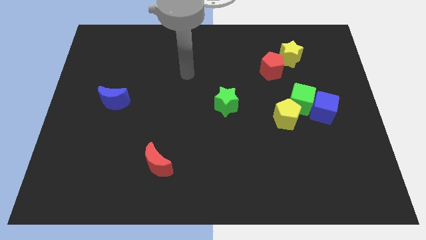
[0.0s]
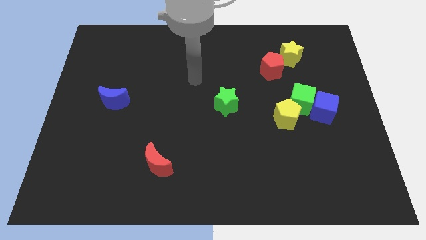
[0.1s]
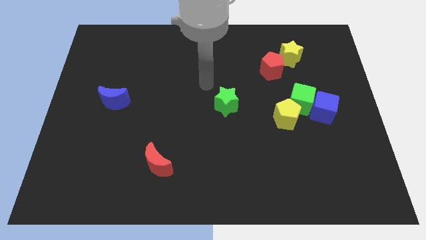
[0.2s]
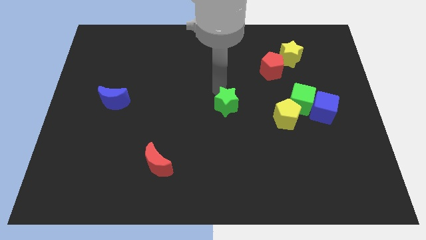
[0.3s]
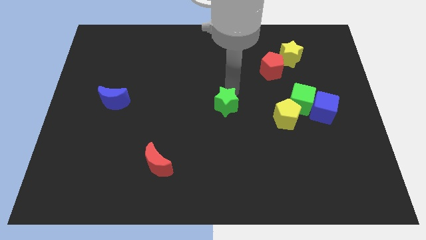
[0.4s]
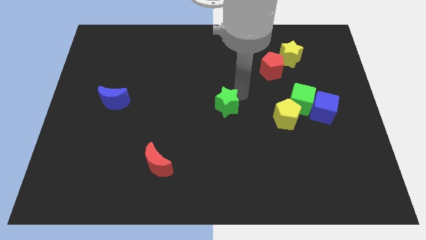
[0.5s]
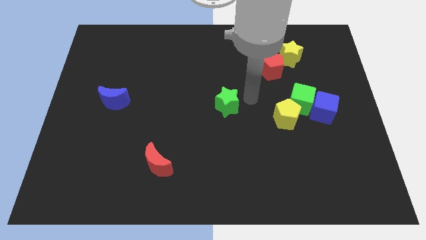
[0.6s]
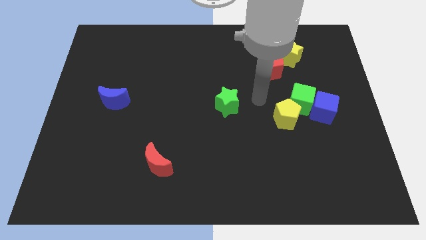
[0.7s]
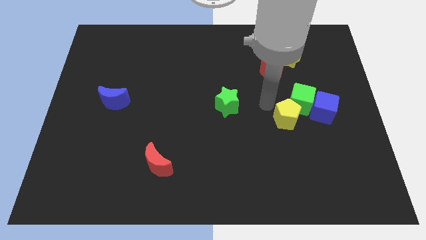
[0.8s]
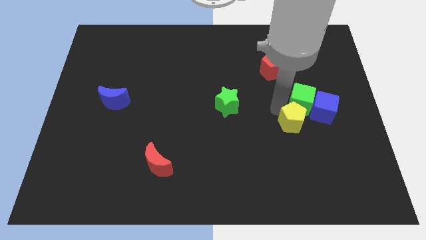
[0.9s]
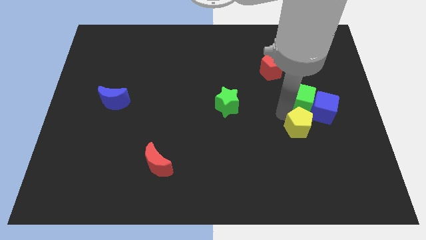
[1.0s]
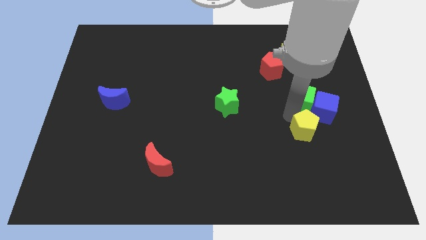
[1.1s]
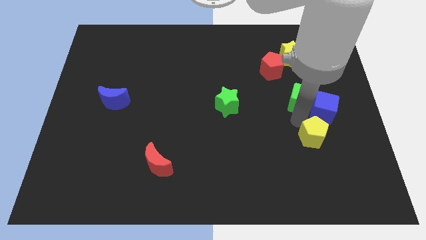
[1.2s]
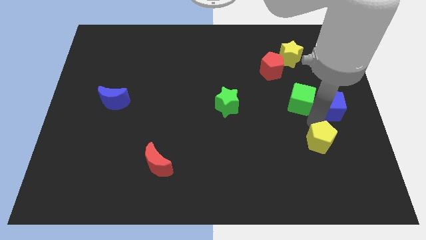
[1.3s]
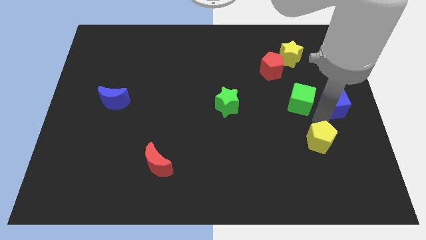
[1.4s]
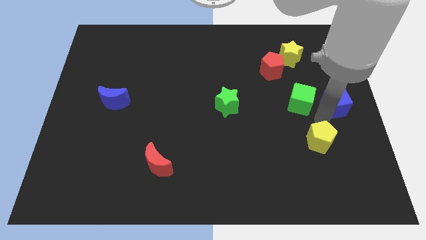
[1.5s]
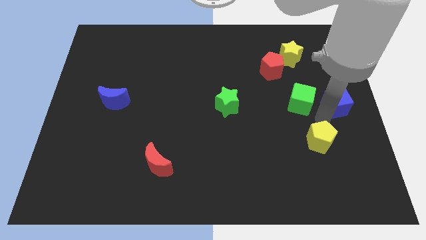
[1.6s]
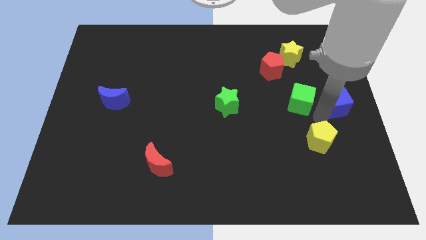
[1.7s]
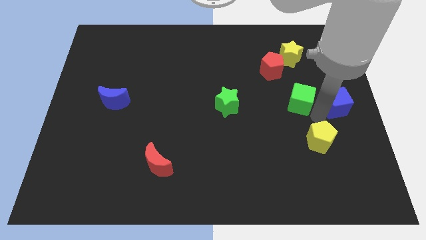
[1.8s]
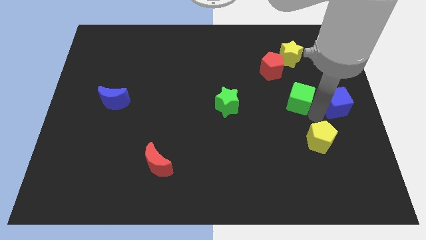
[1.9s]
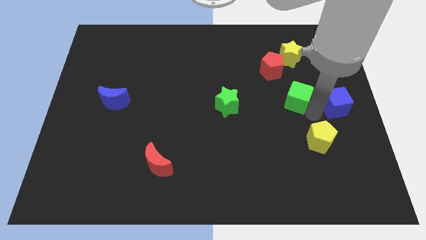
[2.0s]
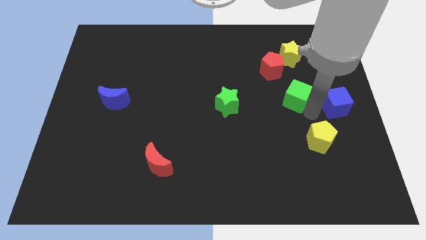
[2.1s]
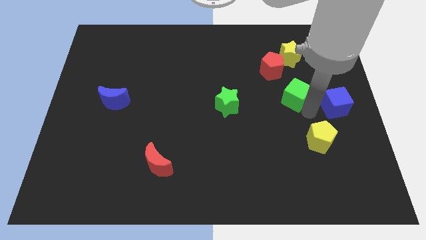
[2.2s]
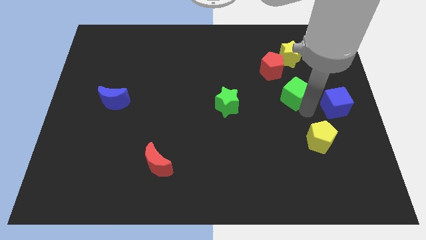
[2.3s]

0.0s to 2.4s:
move the green cube away from the blue cube and yellow pentagon

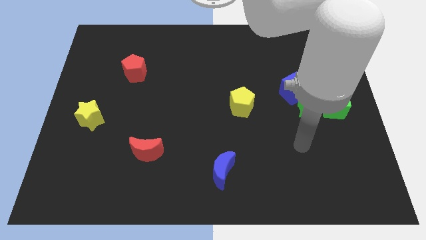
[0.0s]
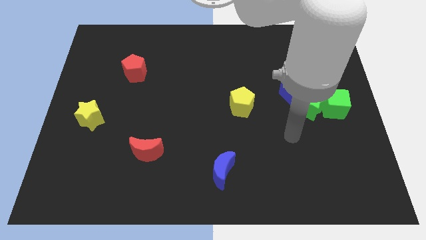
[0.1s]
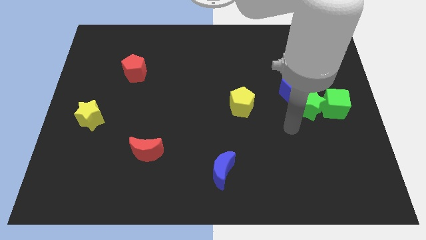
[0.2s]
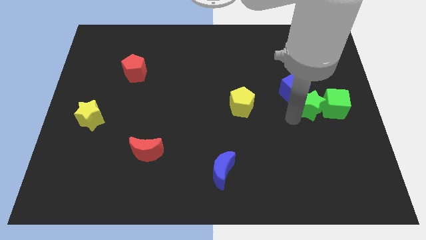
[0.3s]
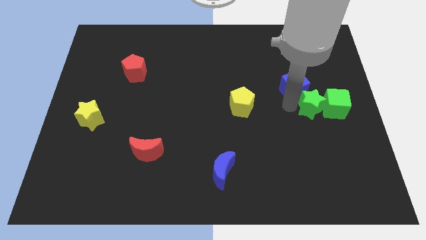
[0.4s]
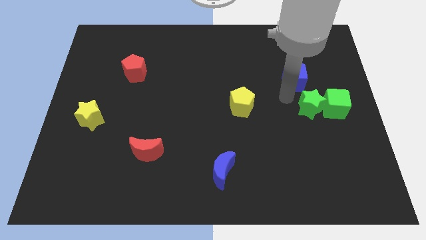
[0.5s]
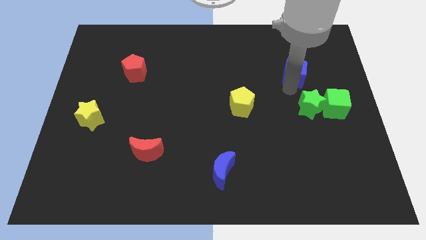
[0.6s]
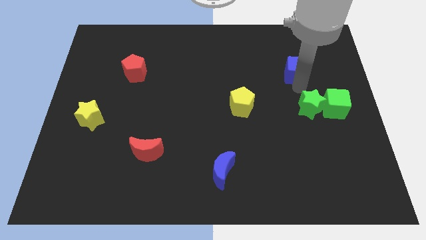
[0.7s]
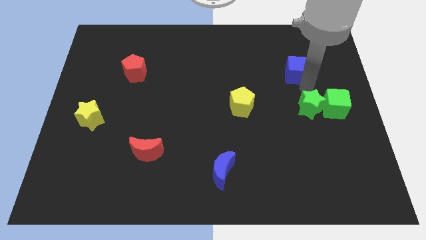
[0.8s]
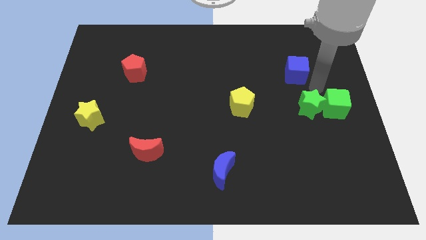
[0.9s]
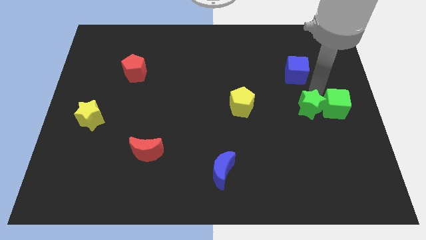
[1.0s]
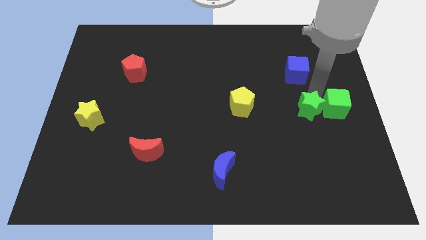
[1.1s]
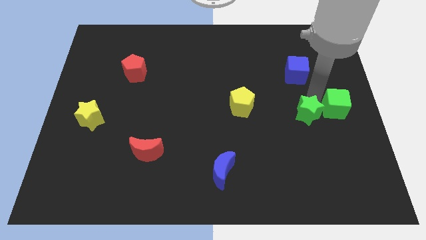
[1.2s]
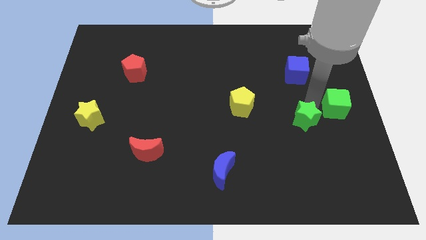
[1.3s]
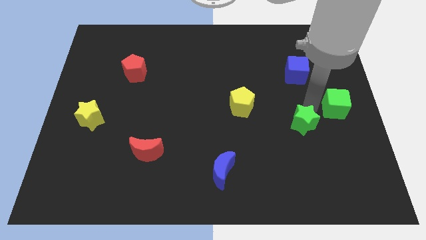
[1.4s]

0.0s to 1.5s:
move the green star away from the green cube and blue cube

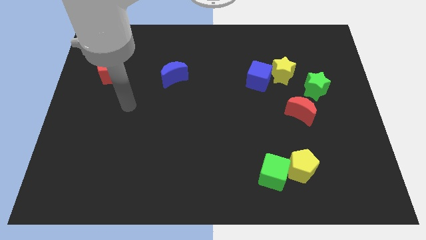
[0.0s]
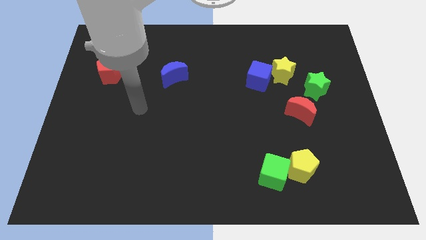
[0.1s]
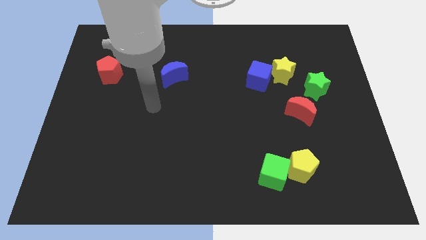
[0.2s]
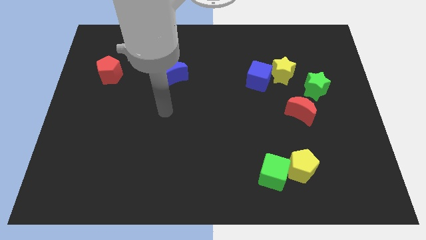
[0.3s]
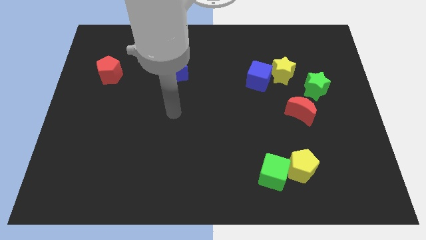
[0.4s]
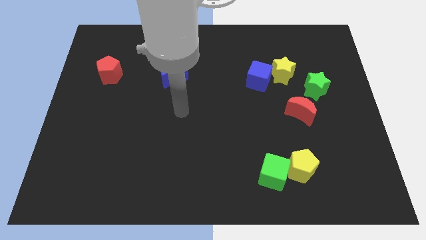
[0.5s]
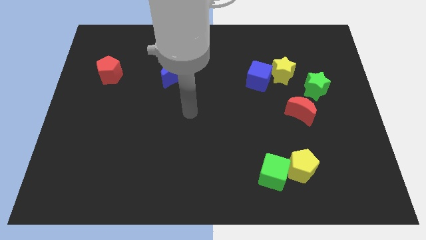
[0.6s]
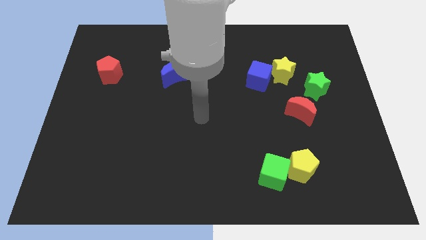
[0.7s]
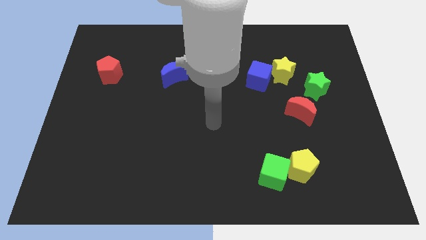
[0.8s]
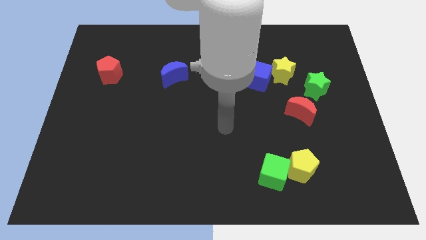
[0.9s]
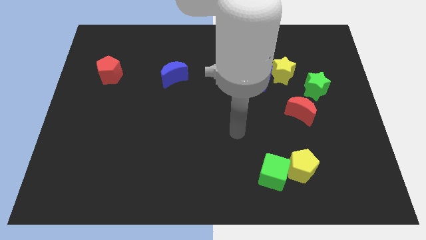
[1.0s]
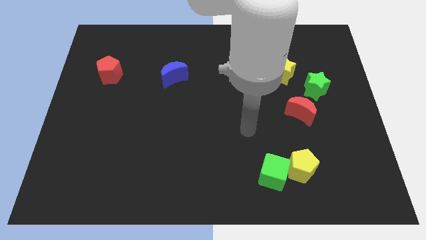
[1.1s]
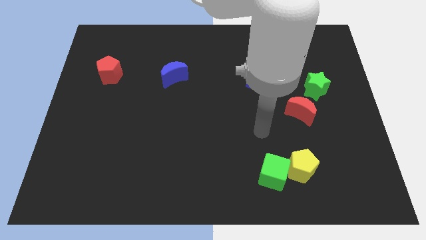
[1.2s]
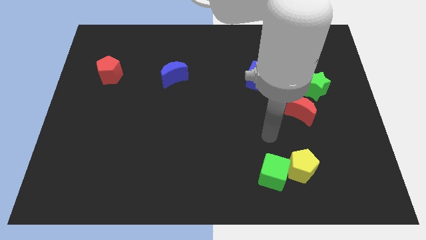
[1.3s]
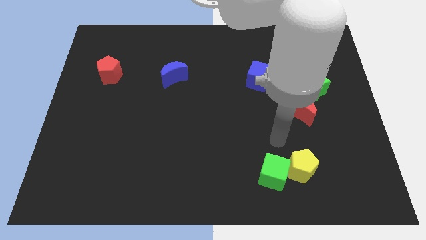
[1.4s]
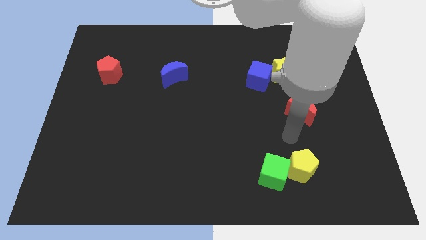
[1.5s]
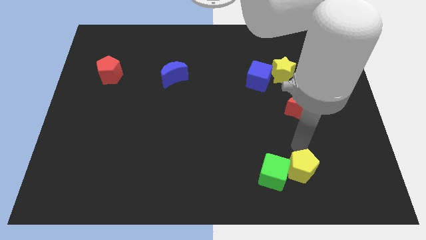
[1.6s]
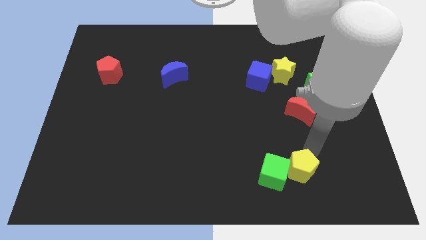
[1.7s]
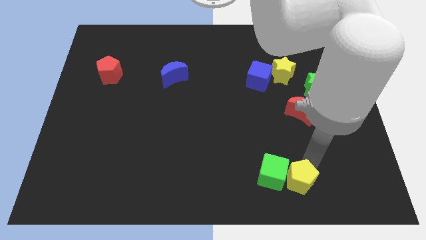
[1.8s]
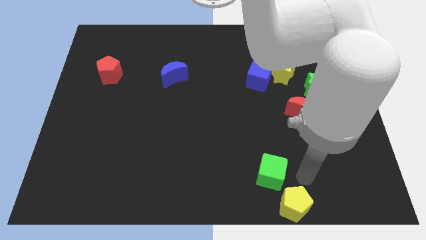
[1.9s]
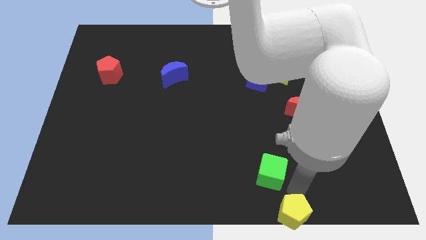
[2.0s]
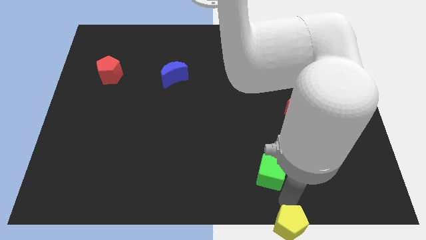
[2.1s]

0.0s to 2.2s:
separate the green cube from the yellow pentagon

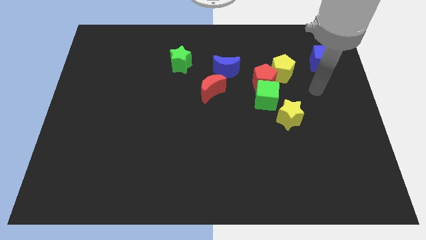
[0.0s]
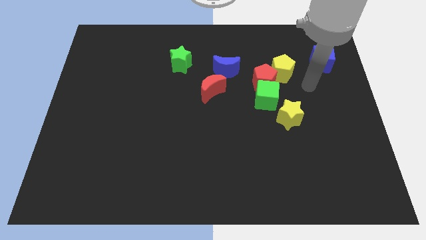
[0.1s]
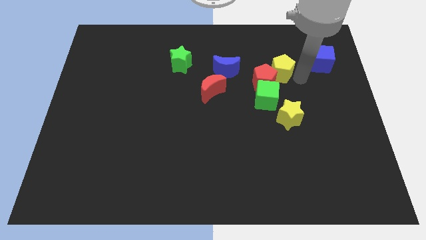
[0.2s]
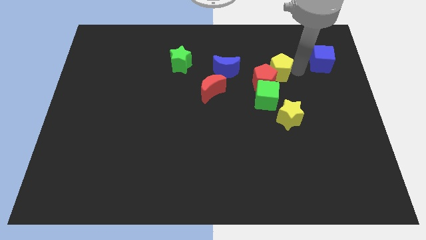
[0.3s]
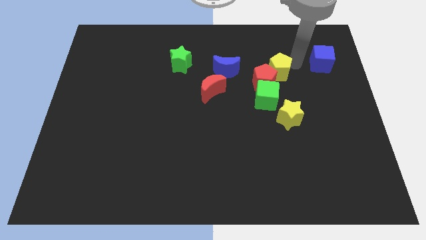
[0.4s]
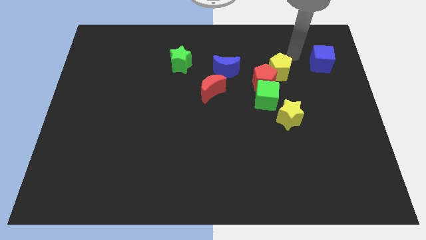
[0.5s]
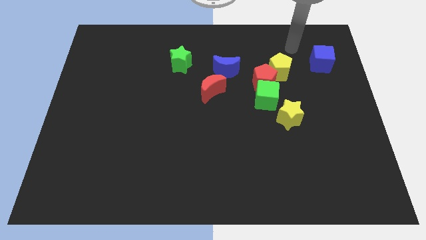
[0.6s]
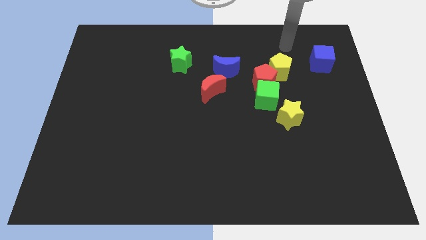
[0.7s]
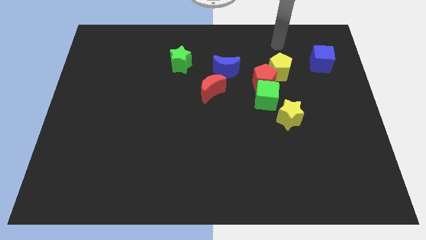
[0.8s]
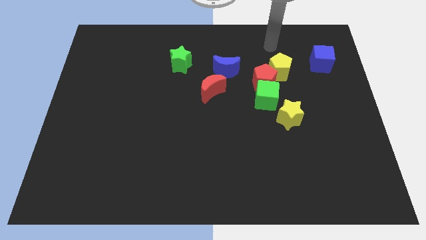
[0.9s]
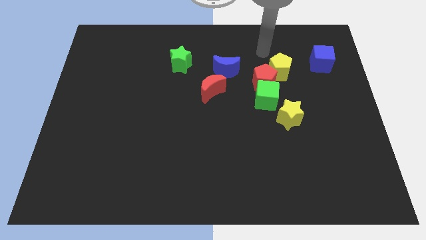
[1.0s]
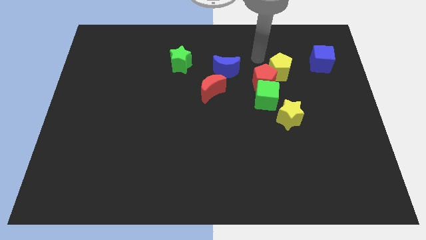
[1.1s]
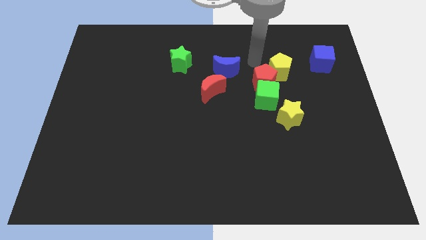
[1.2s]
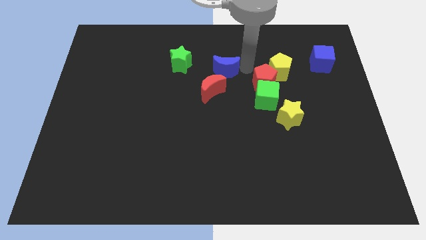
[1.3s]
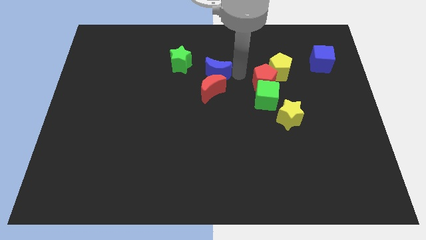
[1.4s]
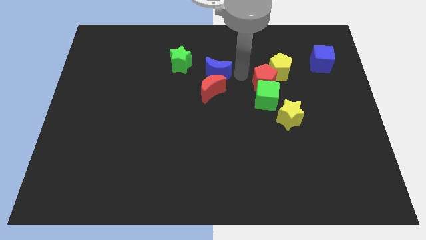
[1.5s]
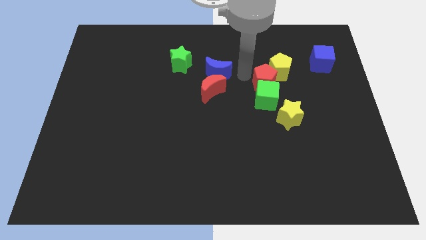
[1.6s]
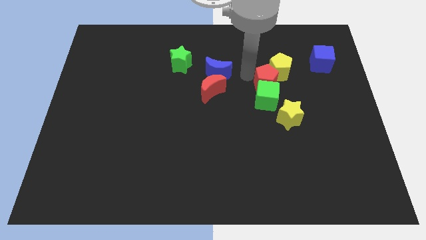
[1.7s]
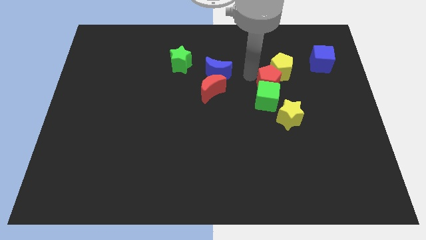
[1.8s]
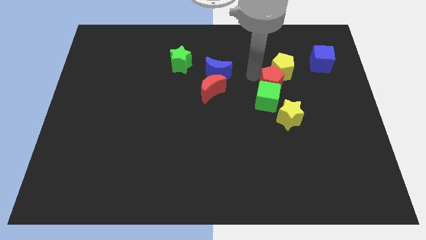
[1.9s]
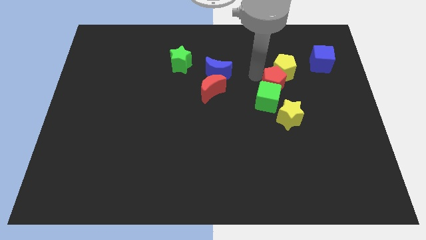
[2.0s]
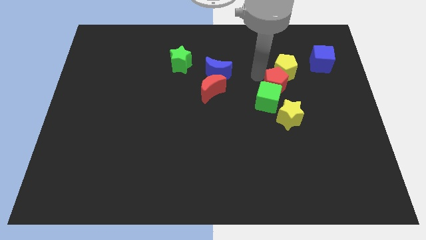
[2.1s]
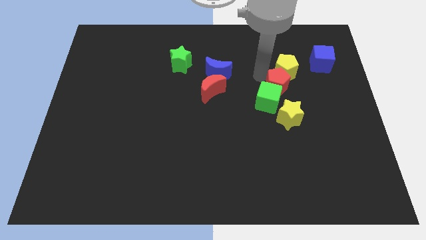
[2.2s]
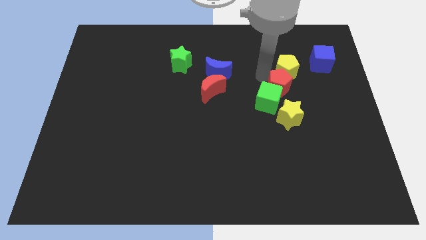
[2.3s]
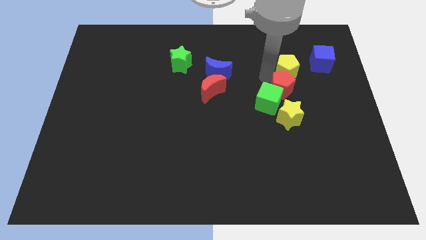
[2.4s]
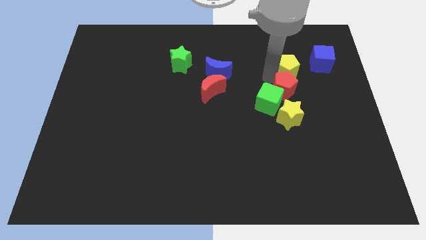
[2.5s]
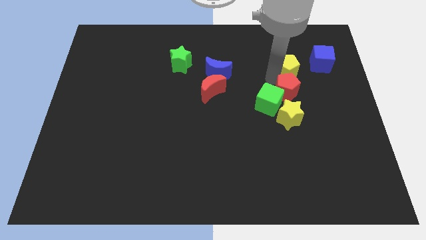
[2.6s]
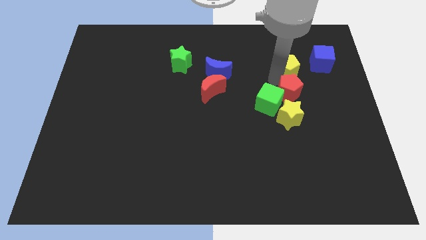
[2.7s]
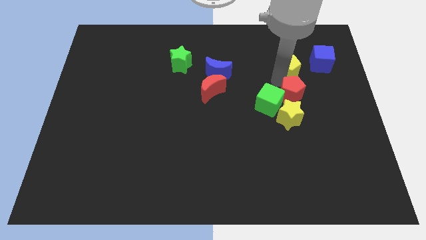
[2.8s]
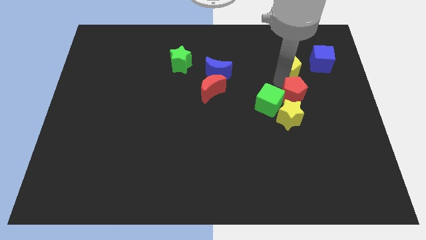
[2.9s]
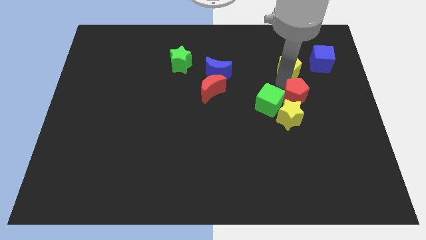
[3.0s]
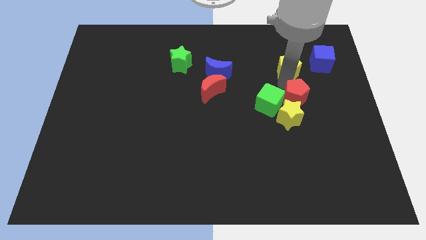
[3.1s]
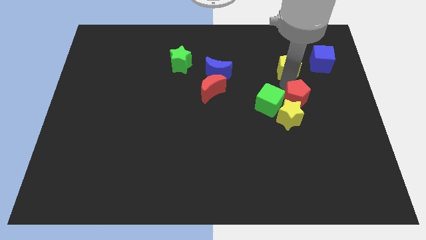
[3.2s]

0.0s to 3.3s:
pull the red pentagon apart from the group
